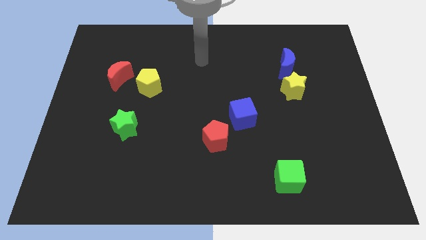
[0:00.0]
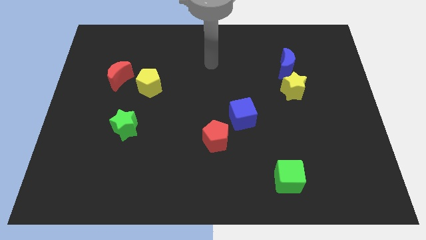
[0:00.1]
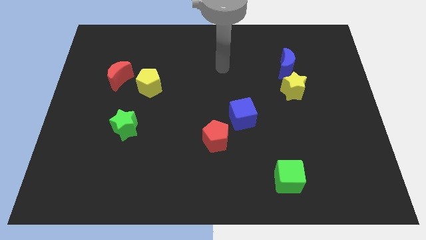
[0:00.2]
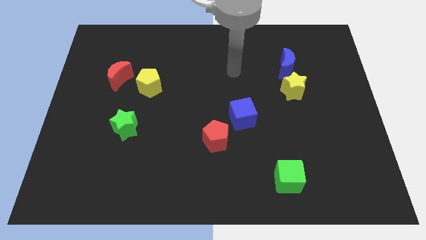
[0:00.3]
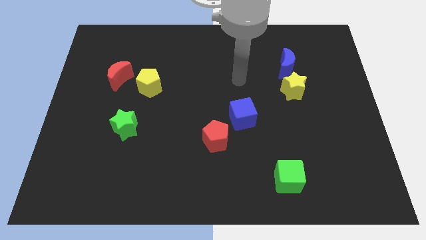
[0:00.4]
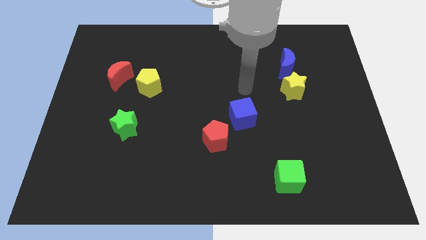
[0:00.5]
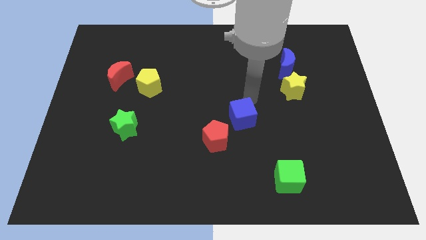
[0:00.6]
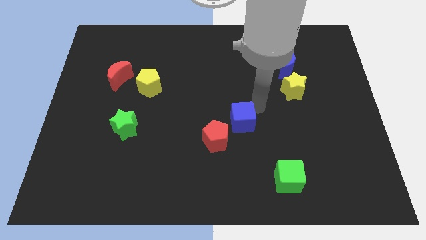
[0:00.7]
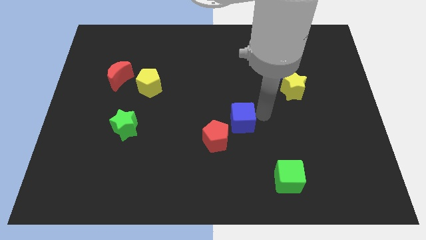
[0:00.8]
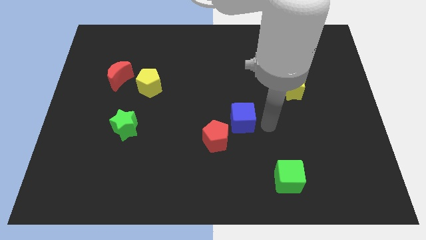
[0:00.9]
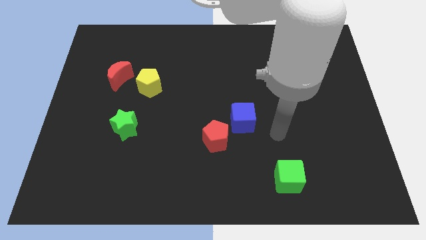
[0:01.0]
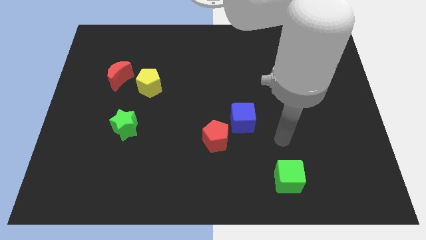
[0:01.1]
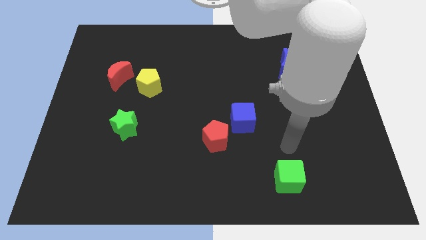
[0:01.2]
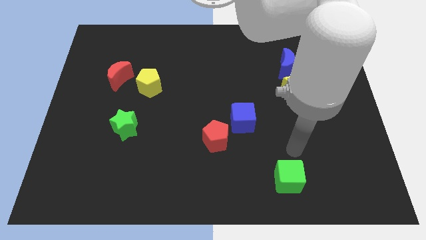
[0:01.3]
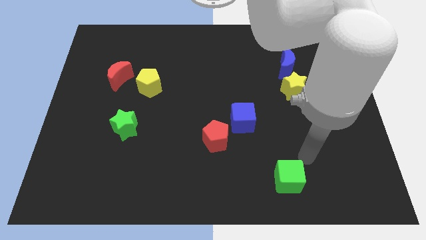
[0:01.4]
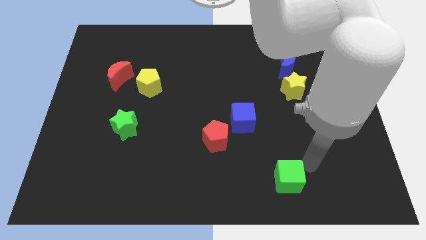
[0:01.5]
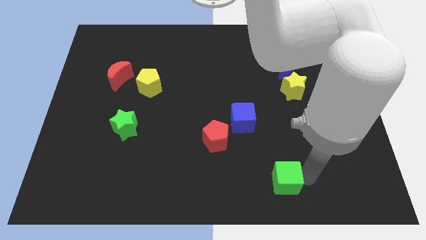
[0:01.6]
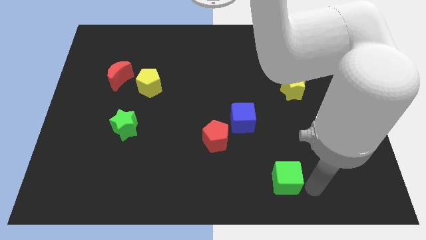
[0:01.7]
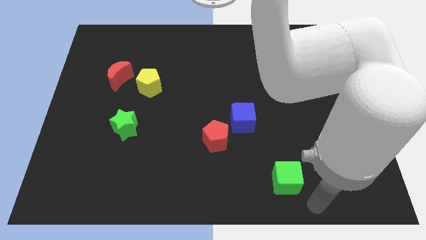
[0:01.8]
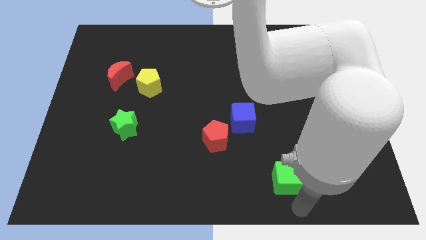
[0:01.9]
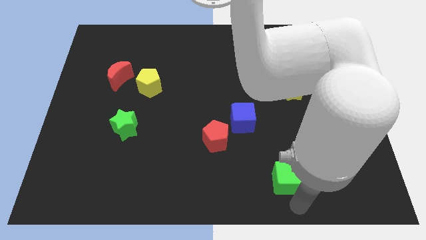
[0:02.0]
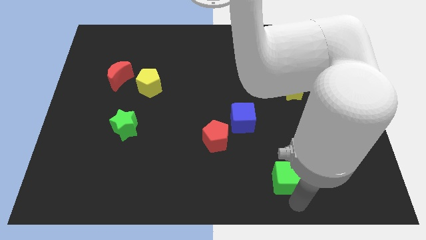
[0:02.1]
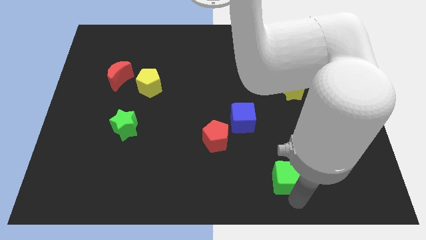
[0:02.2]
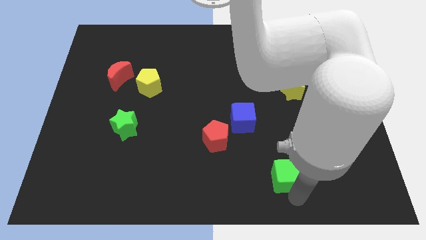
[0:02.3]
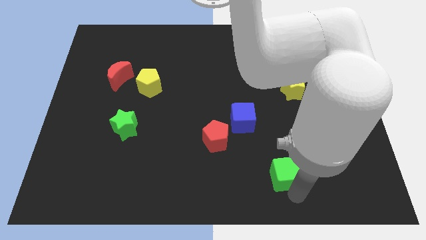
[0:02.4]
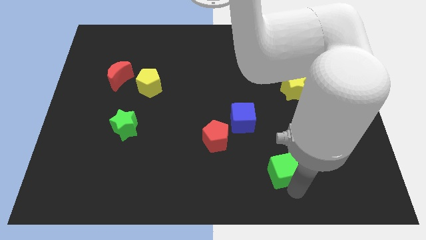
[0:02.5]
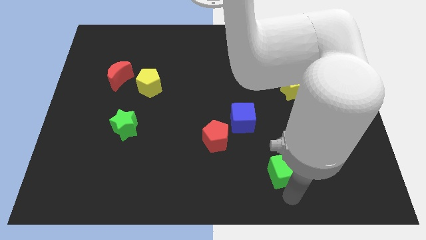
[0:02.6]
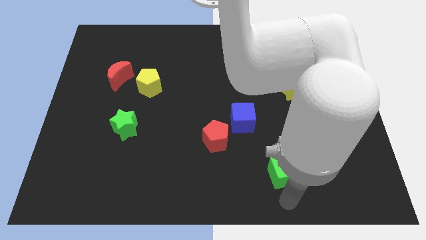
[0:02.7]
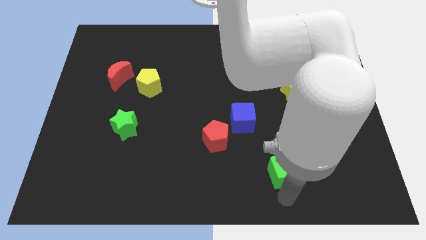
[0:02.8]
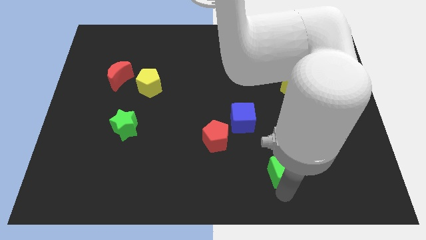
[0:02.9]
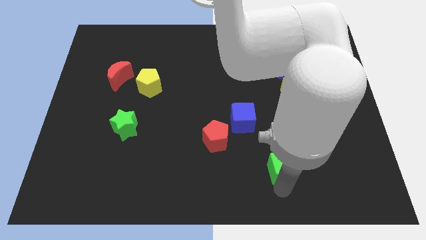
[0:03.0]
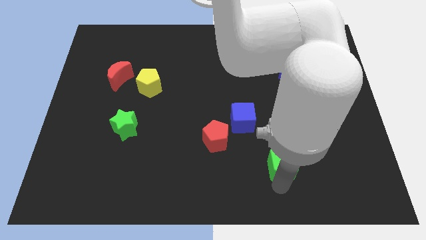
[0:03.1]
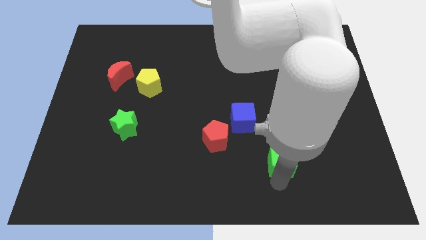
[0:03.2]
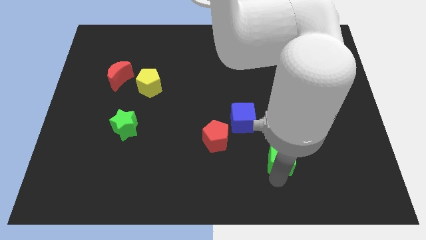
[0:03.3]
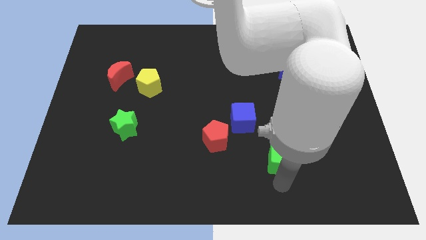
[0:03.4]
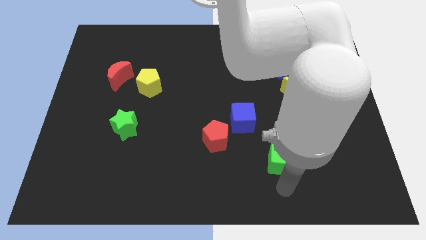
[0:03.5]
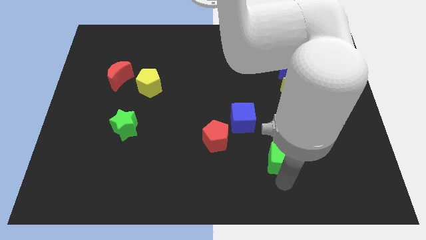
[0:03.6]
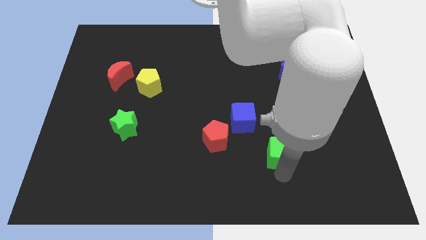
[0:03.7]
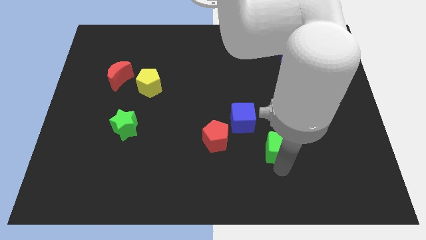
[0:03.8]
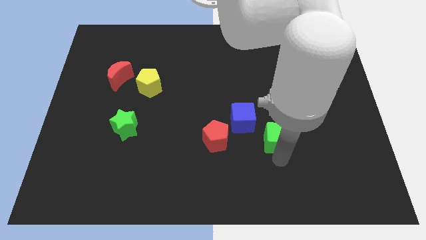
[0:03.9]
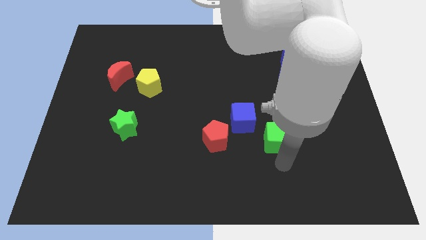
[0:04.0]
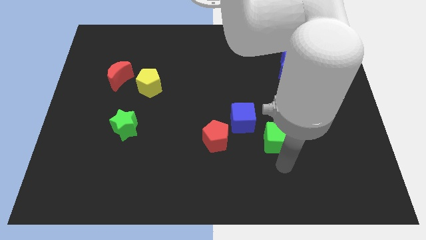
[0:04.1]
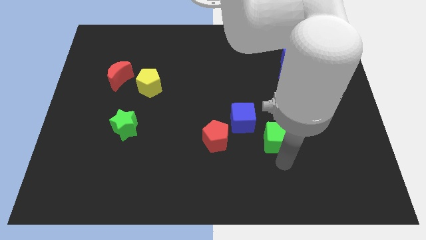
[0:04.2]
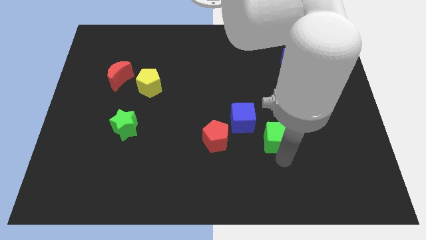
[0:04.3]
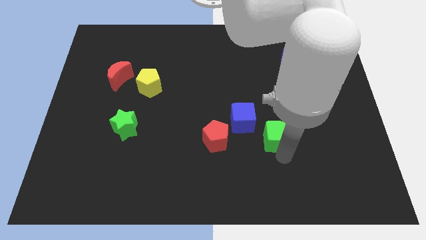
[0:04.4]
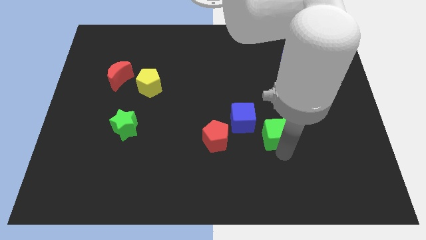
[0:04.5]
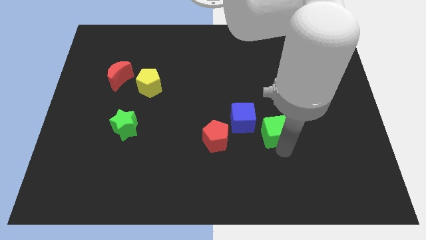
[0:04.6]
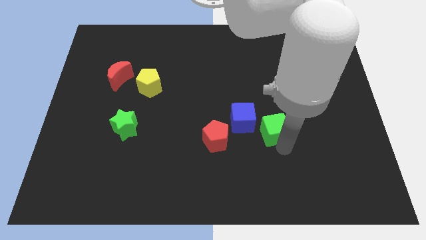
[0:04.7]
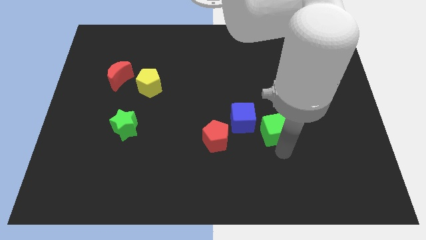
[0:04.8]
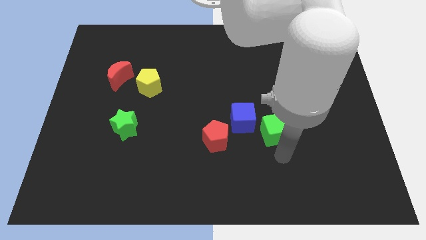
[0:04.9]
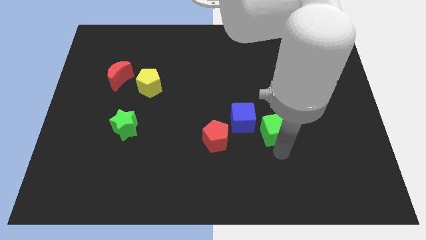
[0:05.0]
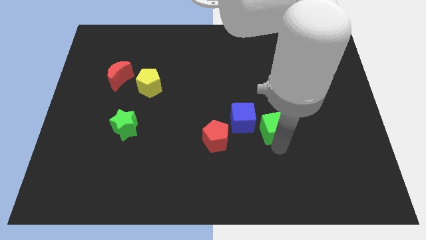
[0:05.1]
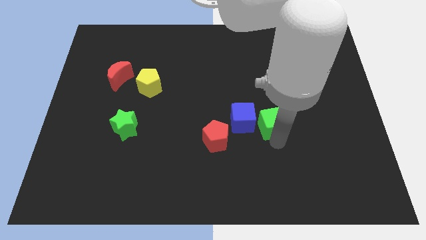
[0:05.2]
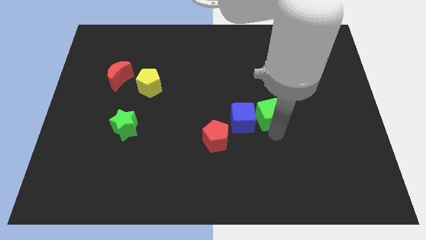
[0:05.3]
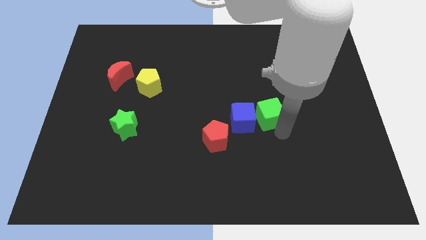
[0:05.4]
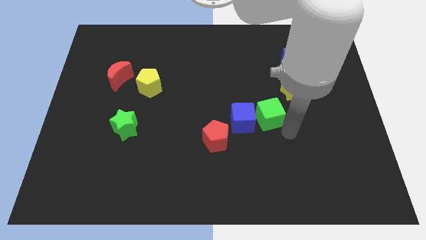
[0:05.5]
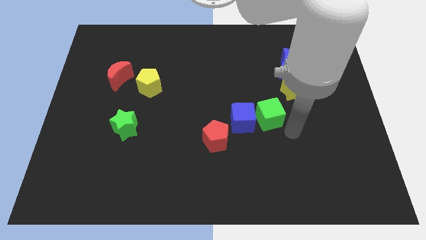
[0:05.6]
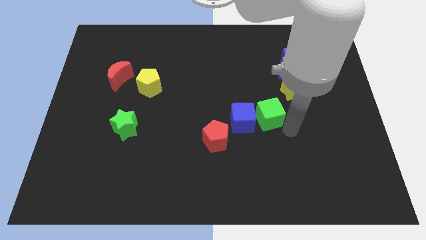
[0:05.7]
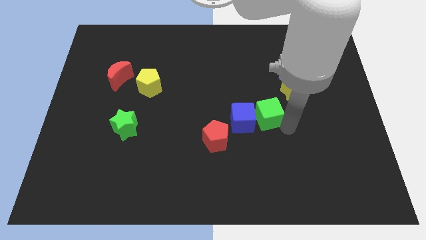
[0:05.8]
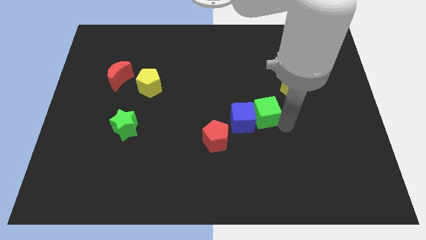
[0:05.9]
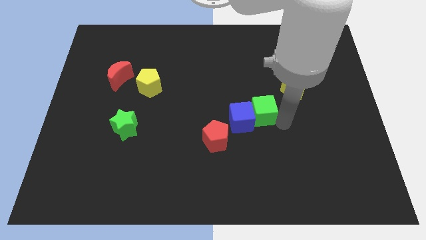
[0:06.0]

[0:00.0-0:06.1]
push the green cube to the center

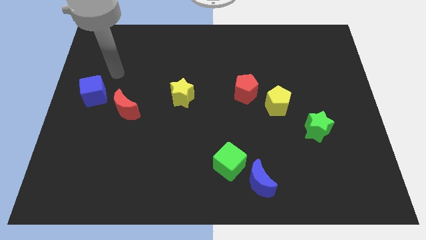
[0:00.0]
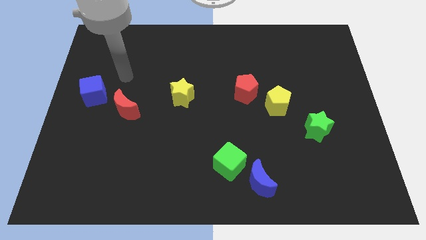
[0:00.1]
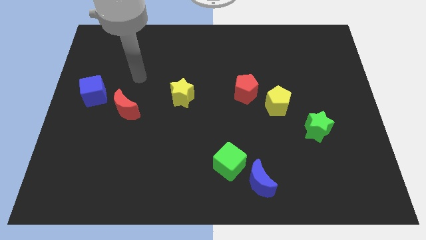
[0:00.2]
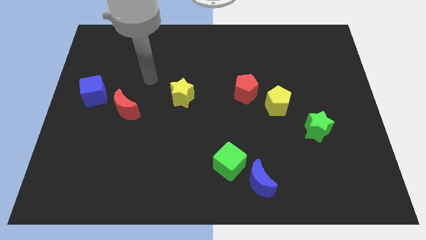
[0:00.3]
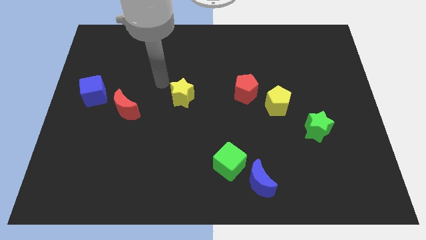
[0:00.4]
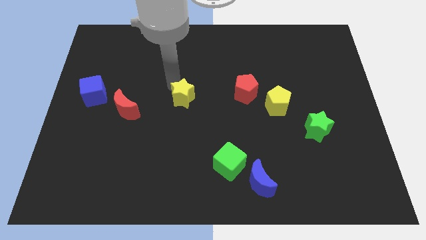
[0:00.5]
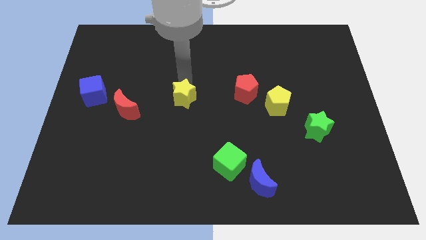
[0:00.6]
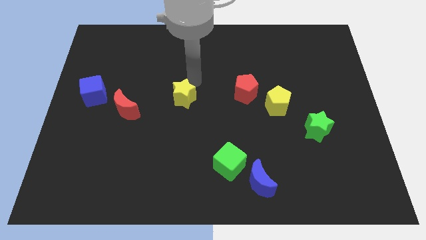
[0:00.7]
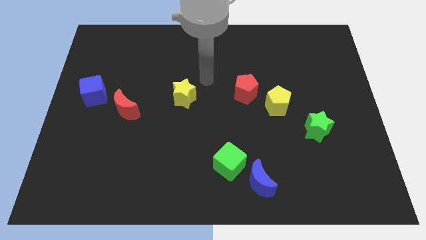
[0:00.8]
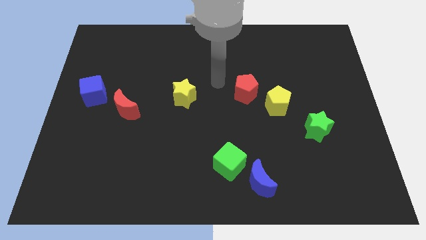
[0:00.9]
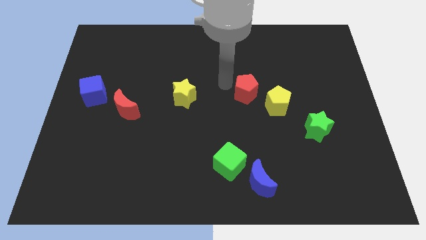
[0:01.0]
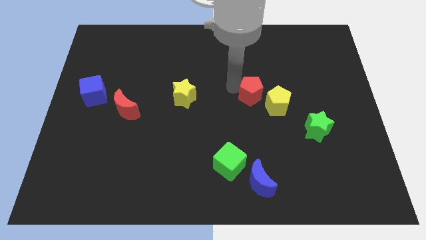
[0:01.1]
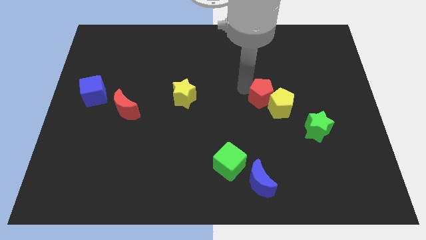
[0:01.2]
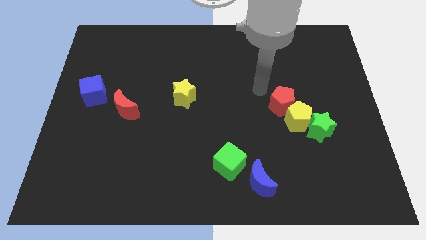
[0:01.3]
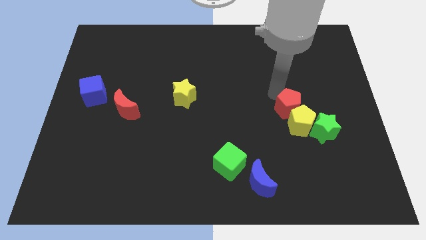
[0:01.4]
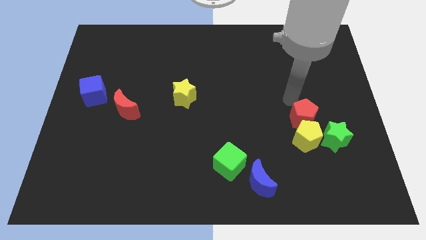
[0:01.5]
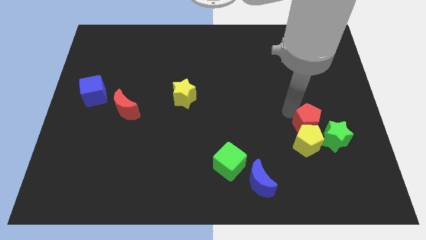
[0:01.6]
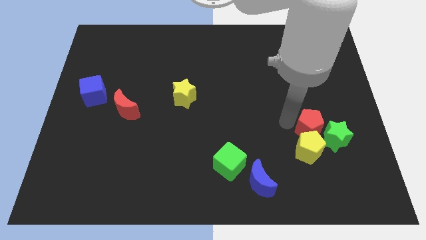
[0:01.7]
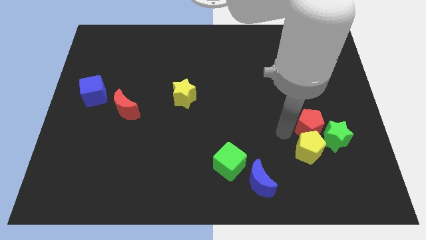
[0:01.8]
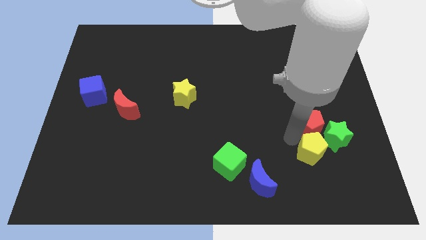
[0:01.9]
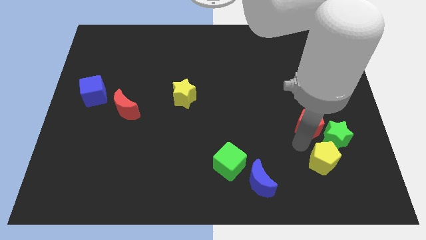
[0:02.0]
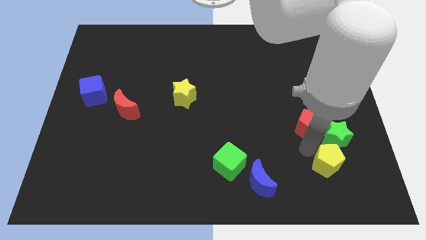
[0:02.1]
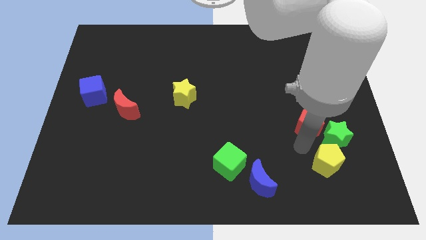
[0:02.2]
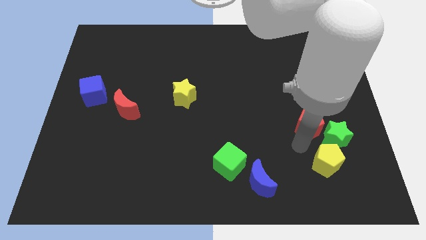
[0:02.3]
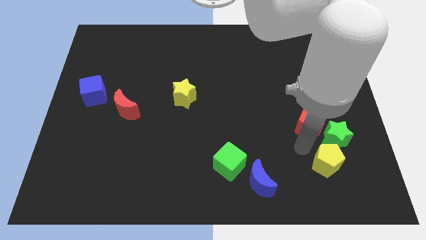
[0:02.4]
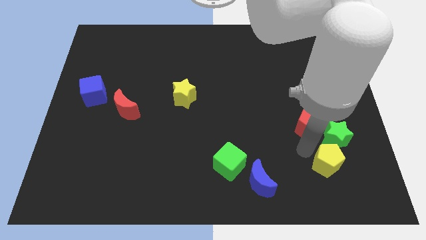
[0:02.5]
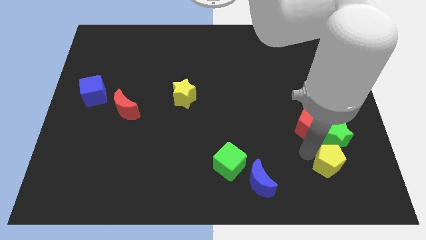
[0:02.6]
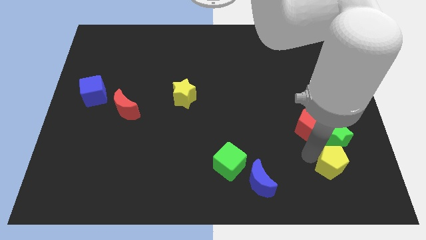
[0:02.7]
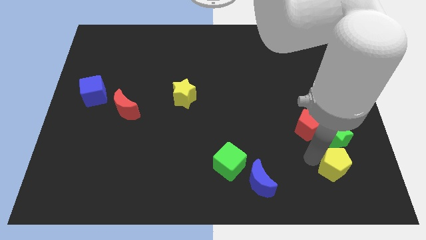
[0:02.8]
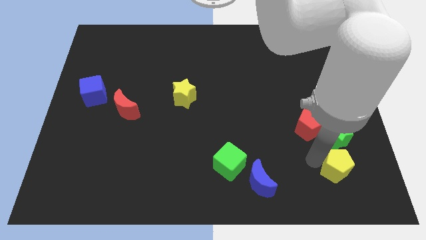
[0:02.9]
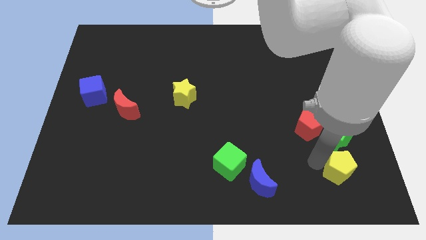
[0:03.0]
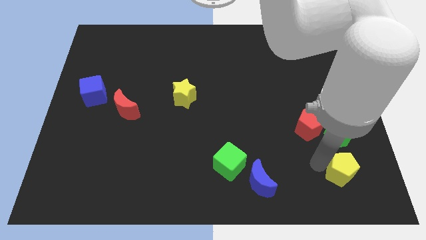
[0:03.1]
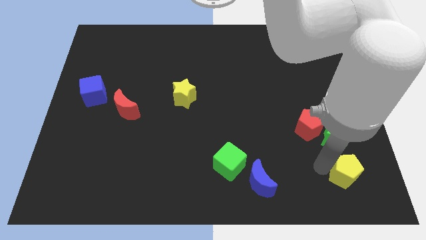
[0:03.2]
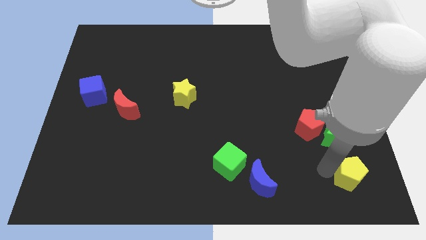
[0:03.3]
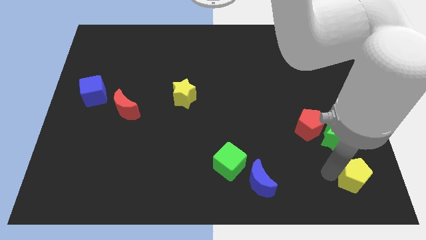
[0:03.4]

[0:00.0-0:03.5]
slide the yellow pentagon to the bottom right
